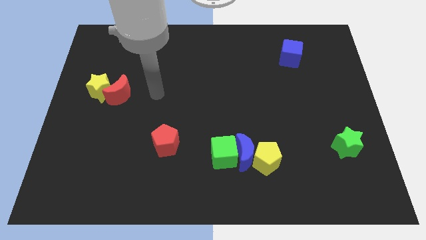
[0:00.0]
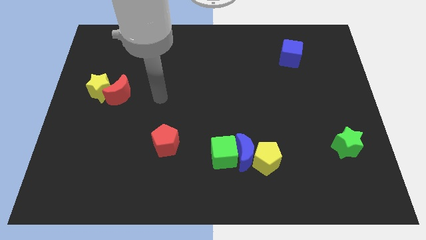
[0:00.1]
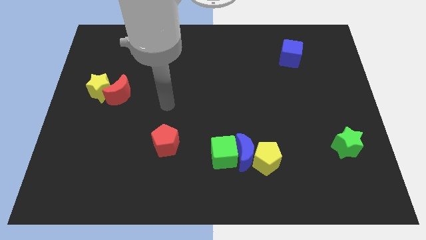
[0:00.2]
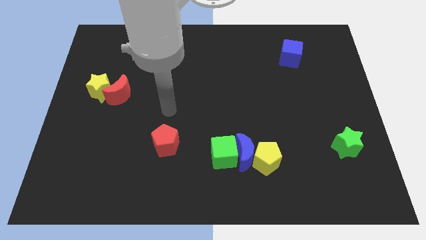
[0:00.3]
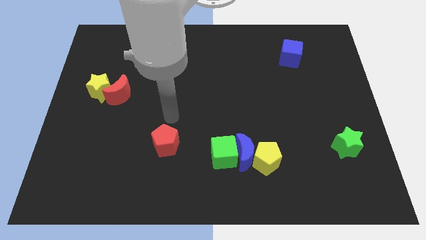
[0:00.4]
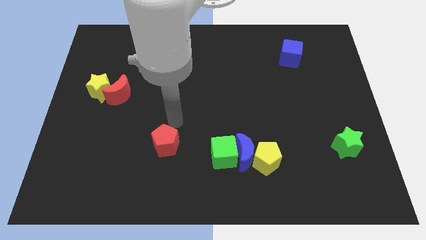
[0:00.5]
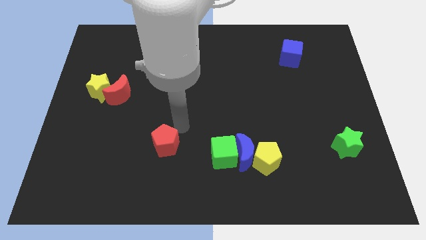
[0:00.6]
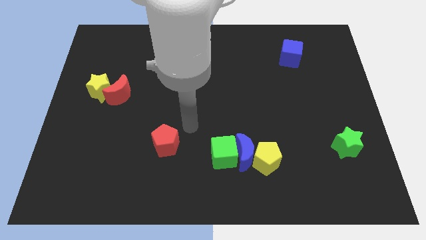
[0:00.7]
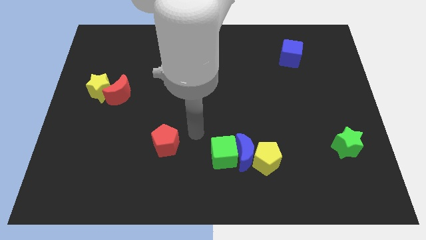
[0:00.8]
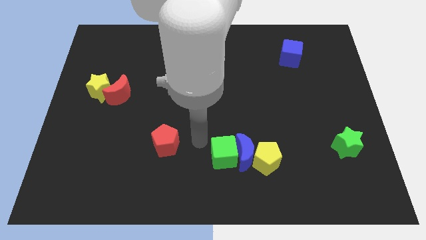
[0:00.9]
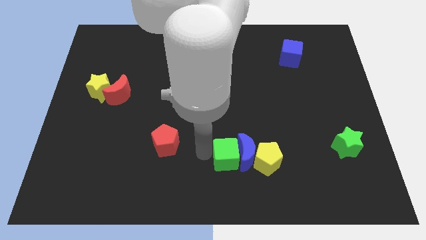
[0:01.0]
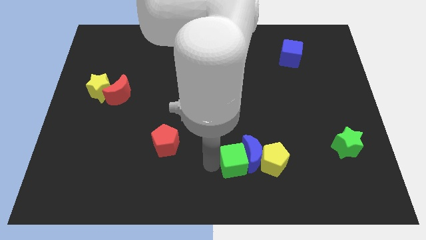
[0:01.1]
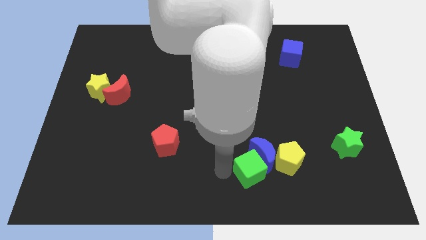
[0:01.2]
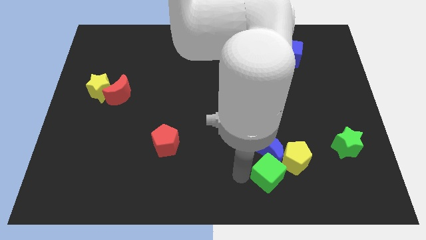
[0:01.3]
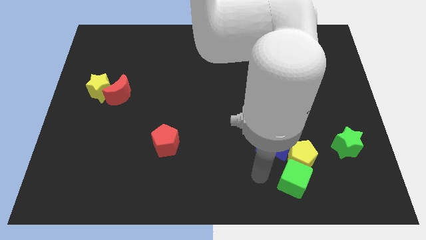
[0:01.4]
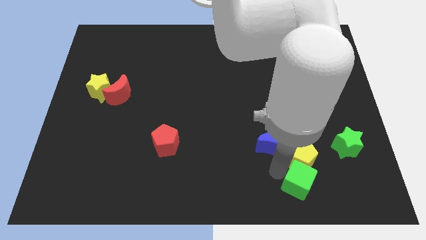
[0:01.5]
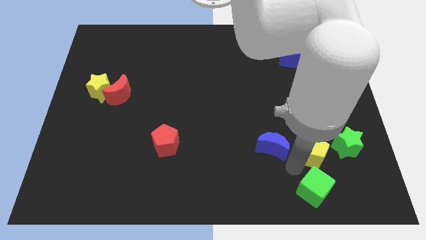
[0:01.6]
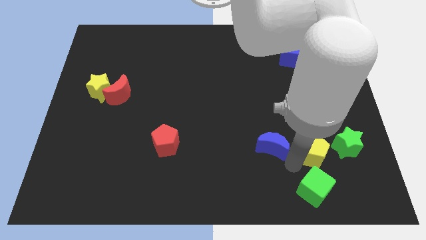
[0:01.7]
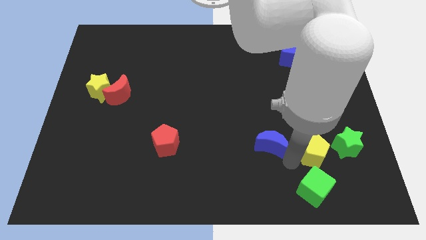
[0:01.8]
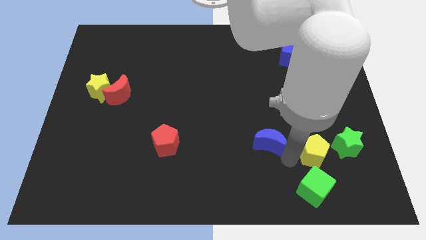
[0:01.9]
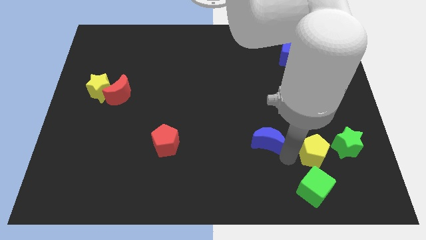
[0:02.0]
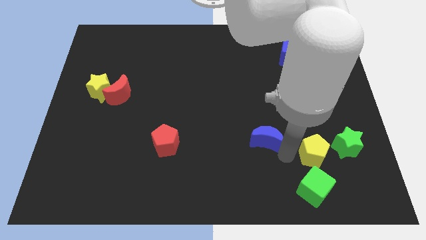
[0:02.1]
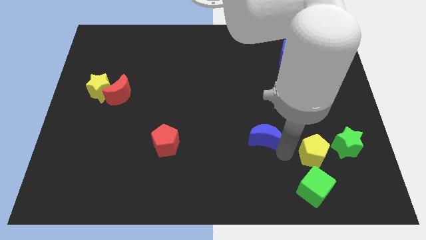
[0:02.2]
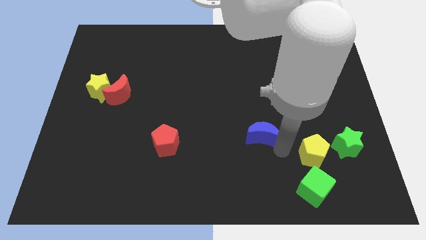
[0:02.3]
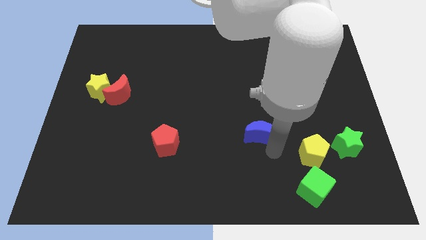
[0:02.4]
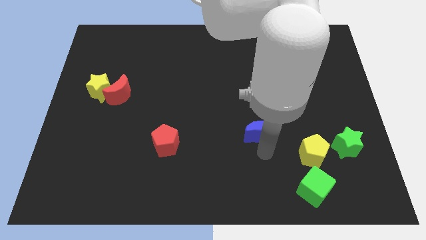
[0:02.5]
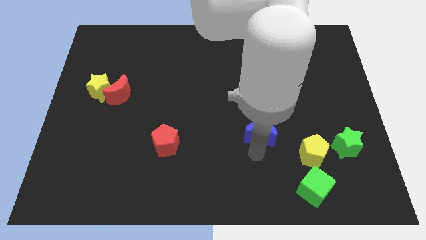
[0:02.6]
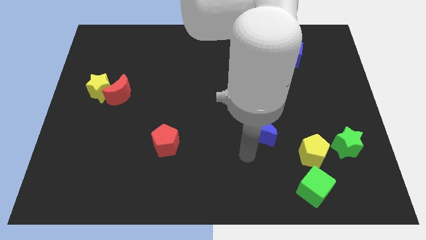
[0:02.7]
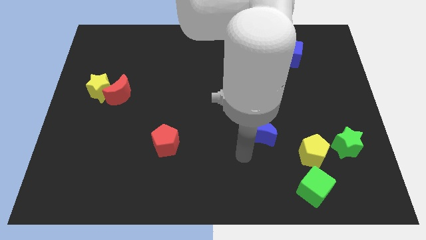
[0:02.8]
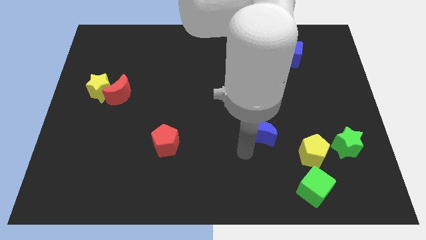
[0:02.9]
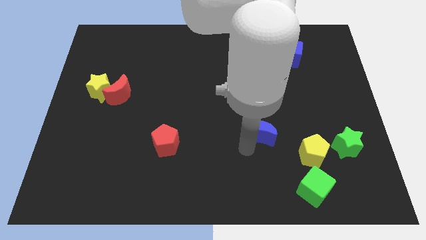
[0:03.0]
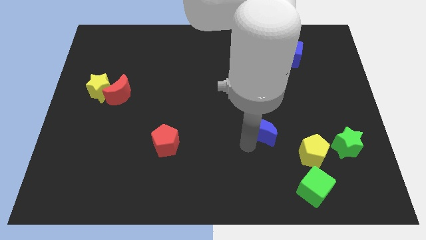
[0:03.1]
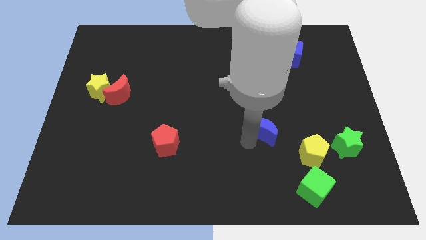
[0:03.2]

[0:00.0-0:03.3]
slightly move the blue moon up and right

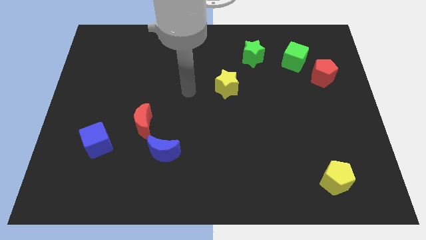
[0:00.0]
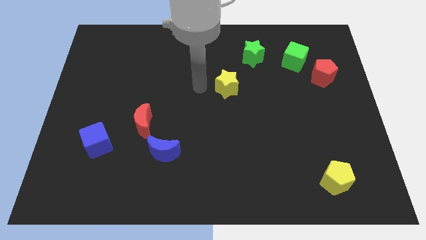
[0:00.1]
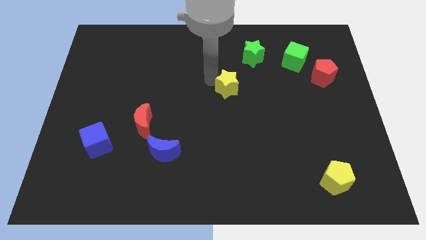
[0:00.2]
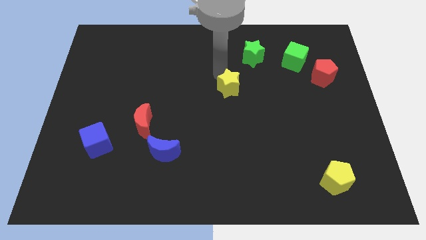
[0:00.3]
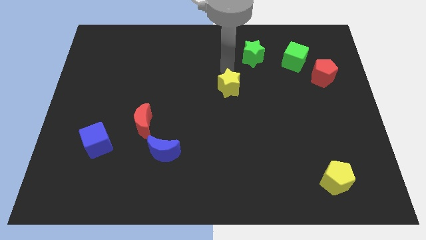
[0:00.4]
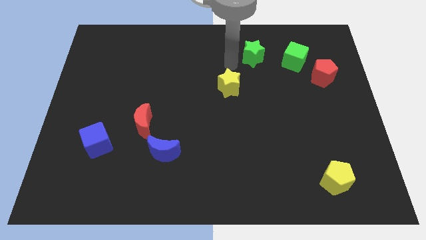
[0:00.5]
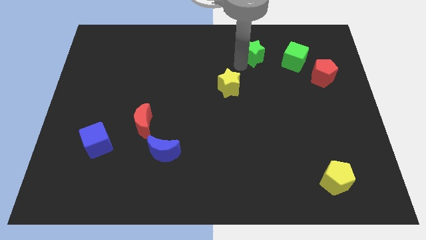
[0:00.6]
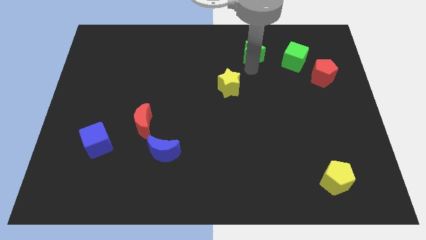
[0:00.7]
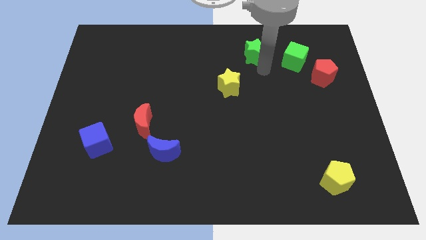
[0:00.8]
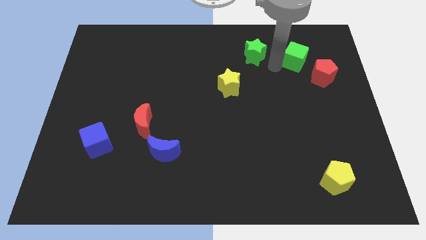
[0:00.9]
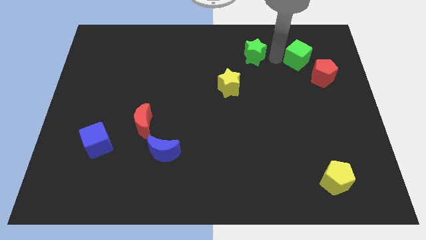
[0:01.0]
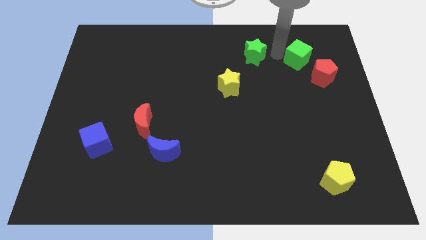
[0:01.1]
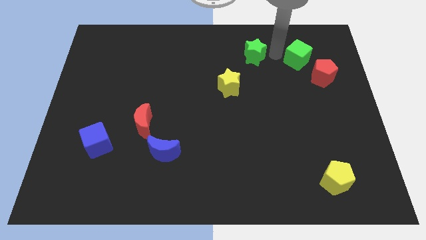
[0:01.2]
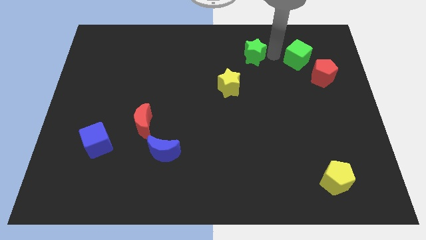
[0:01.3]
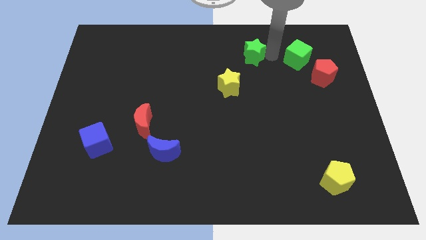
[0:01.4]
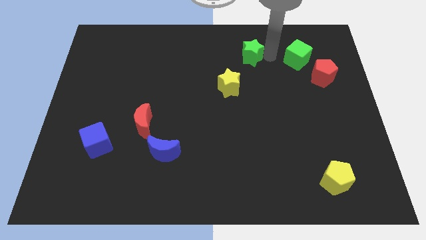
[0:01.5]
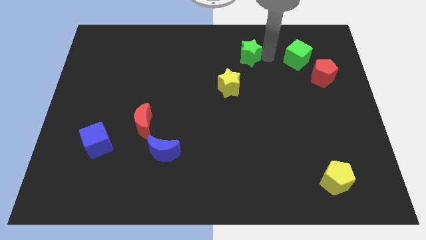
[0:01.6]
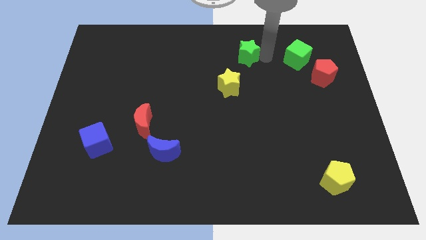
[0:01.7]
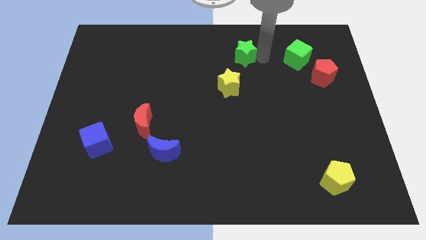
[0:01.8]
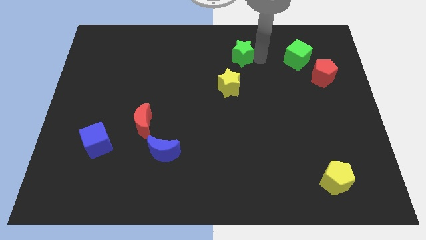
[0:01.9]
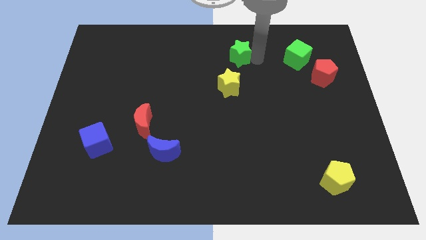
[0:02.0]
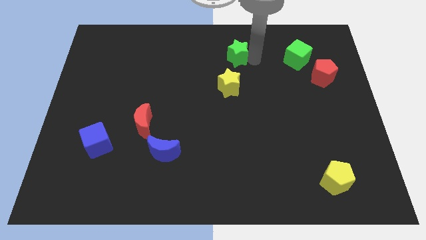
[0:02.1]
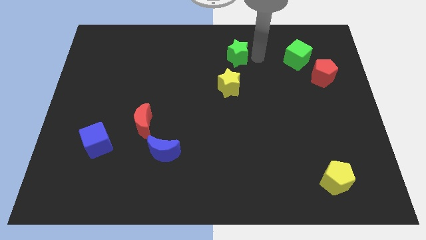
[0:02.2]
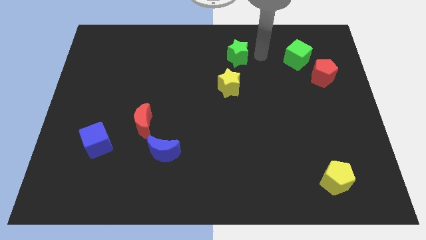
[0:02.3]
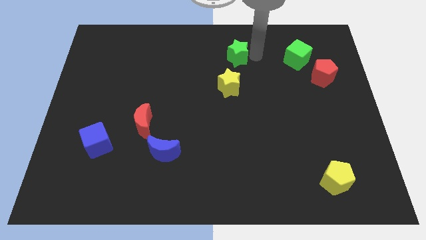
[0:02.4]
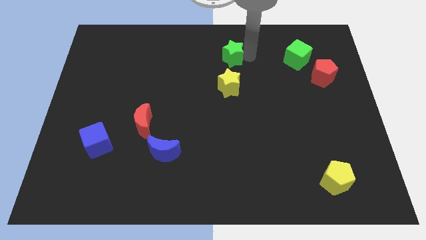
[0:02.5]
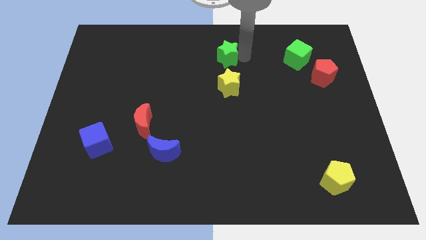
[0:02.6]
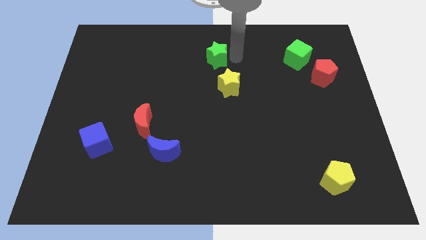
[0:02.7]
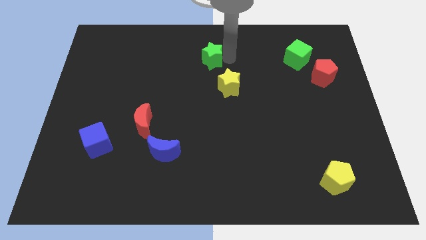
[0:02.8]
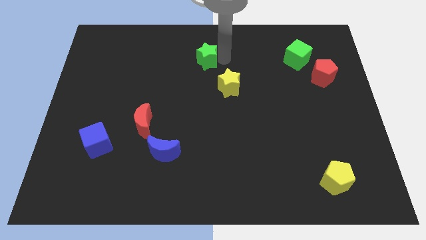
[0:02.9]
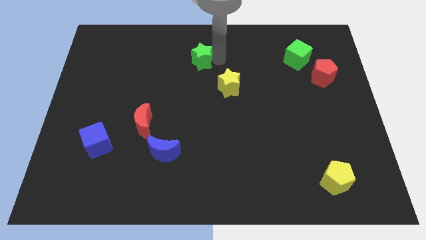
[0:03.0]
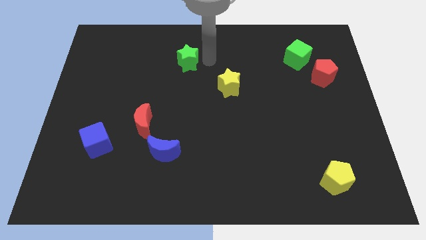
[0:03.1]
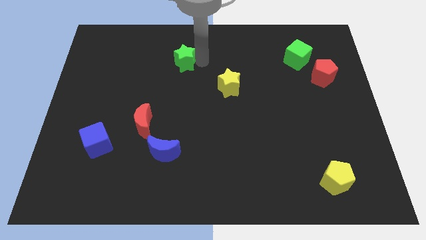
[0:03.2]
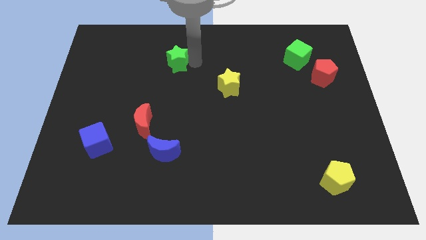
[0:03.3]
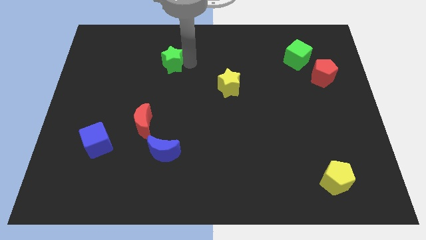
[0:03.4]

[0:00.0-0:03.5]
push the green star to the left

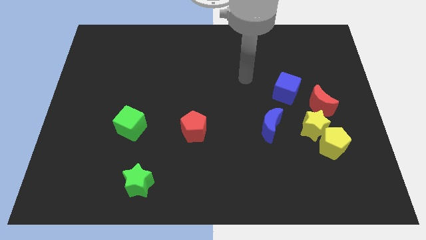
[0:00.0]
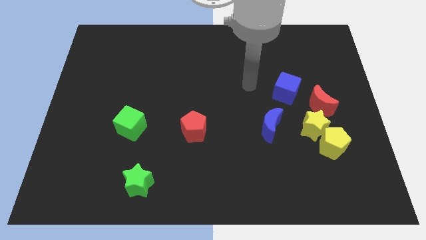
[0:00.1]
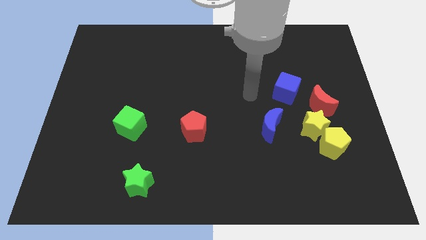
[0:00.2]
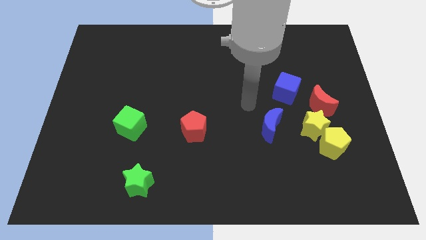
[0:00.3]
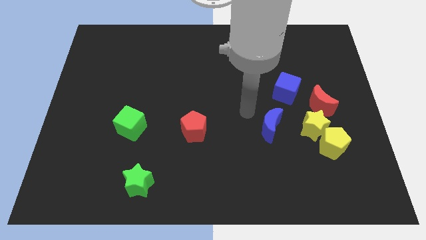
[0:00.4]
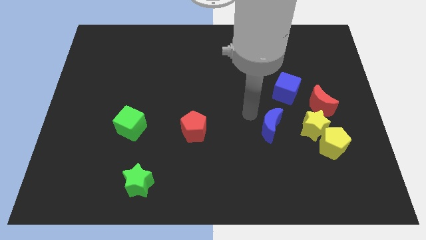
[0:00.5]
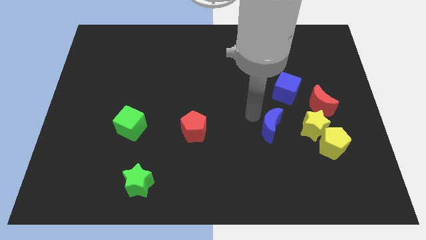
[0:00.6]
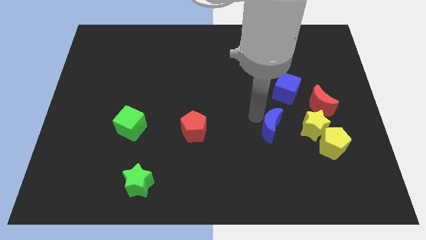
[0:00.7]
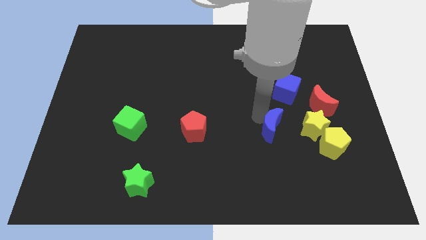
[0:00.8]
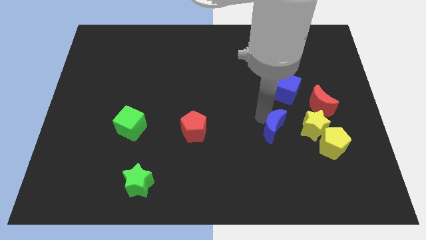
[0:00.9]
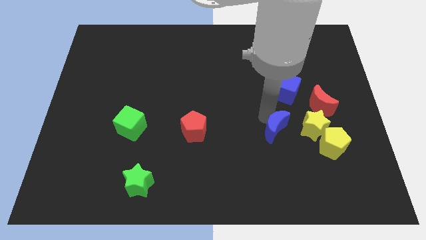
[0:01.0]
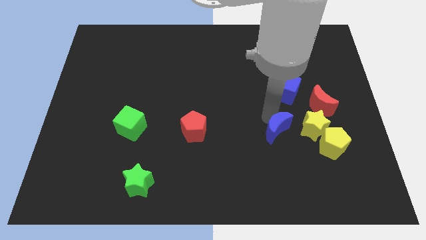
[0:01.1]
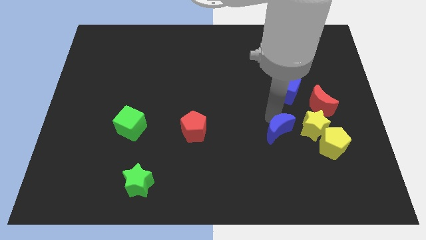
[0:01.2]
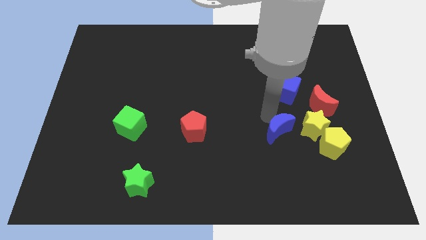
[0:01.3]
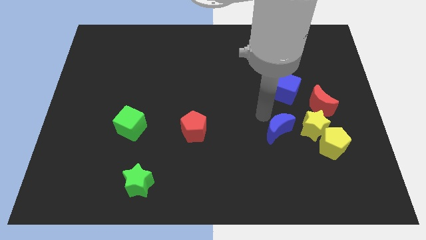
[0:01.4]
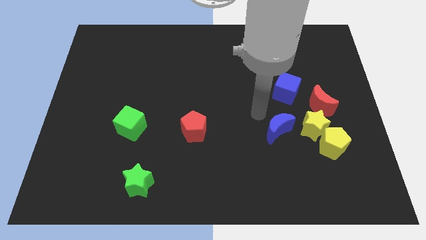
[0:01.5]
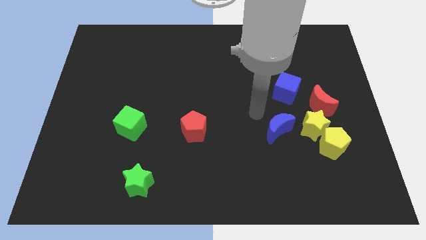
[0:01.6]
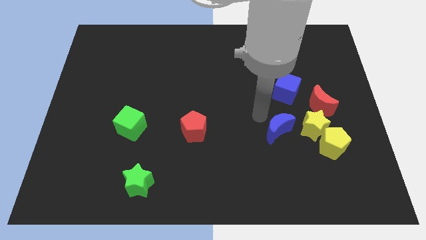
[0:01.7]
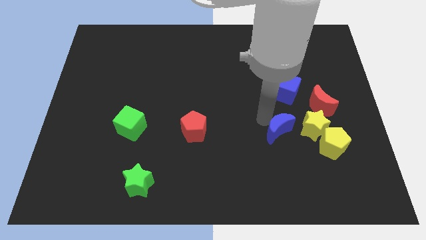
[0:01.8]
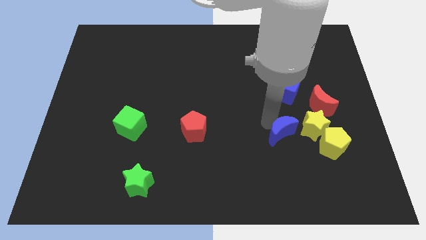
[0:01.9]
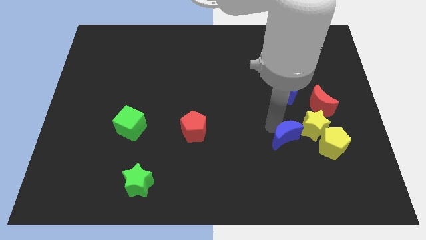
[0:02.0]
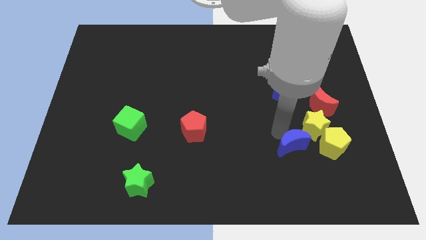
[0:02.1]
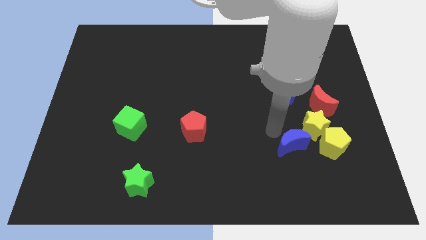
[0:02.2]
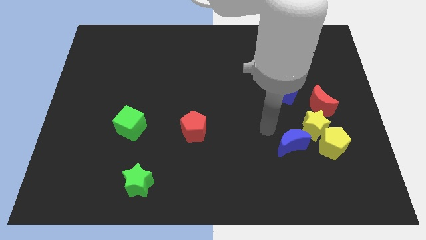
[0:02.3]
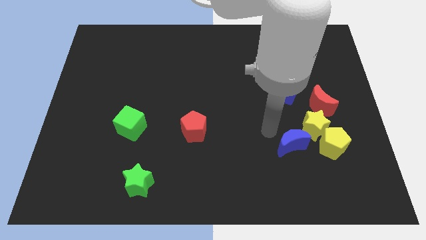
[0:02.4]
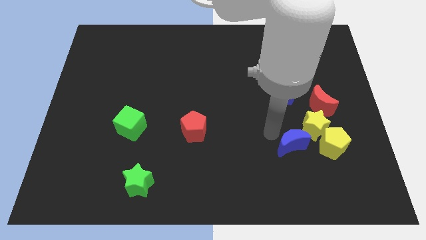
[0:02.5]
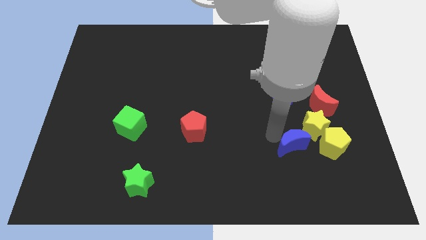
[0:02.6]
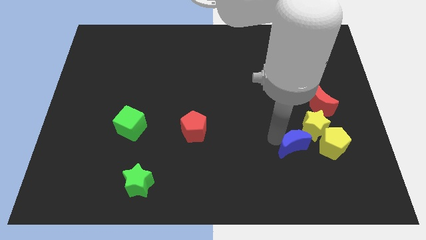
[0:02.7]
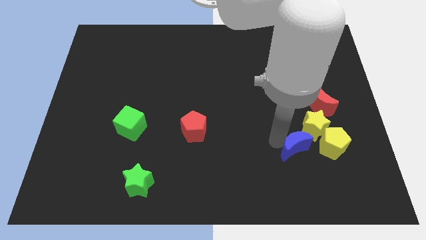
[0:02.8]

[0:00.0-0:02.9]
move the blue moon down and to the right diagonally a little bit
